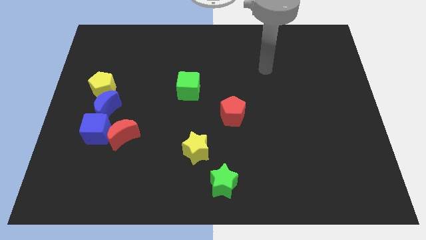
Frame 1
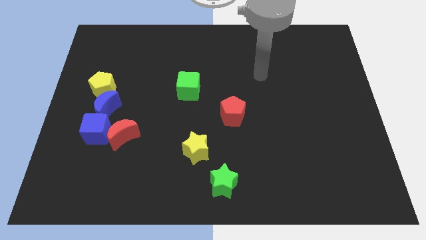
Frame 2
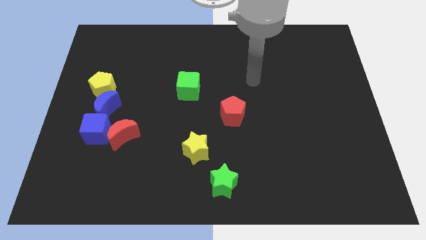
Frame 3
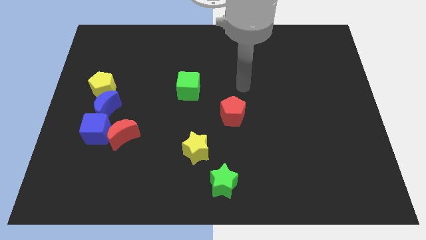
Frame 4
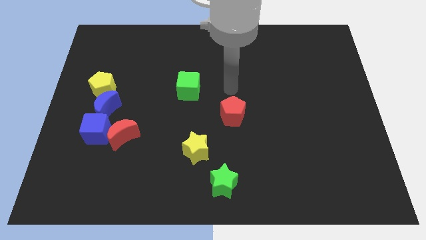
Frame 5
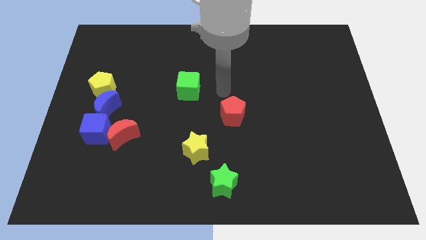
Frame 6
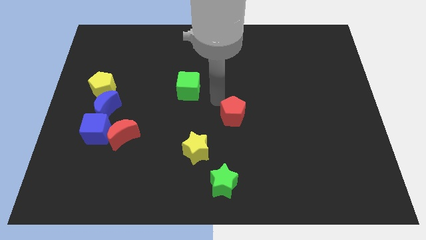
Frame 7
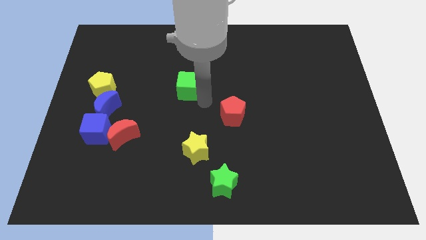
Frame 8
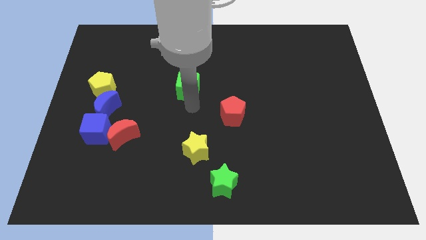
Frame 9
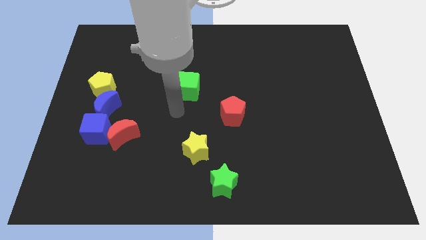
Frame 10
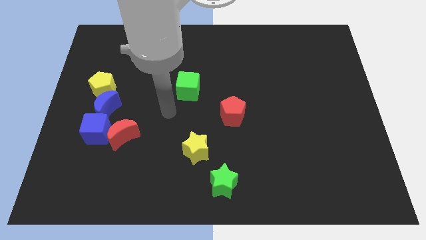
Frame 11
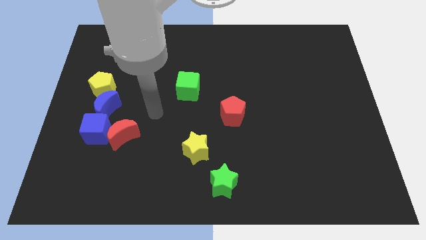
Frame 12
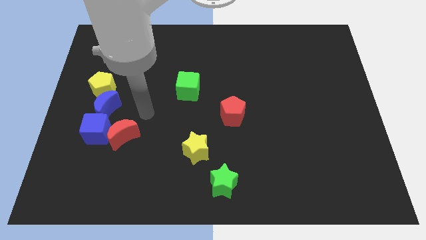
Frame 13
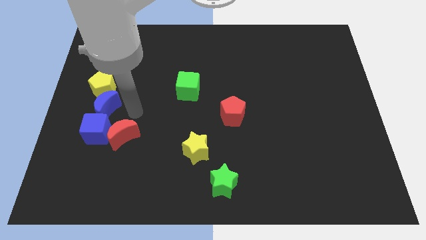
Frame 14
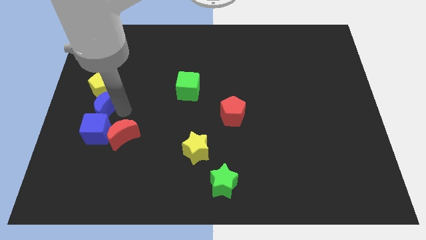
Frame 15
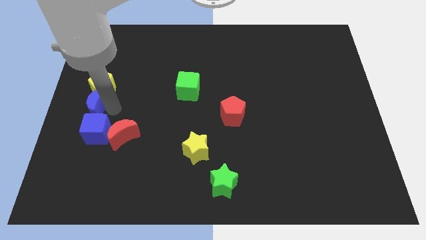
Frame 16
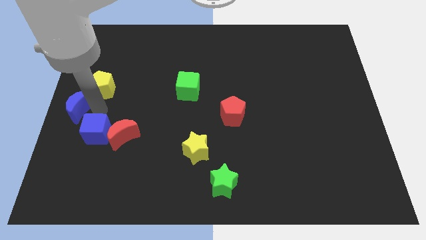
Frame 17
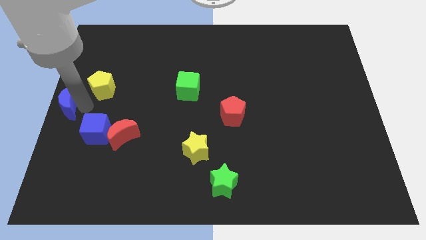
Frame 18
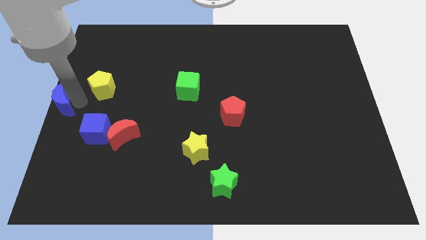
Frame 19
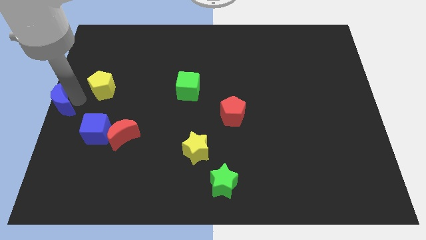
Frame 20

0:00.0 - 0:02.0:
pull the yellow pentagon apart from the blue moon

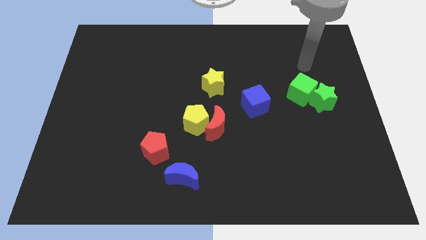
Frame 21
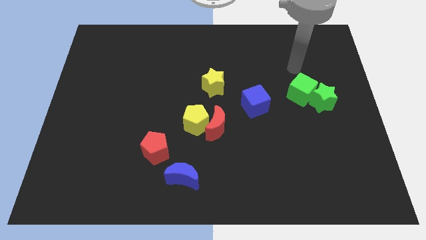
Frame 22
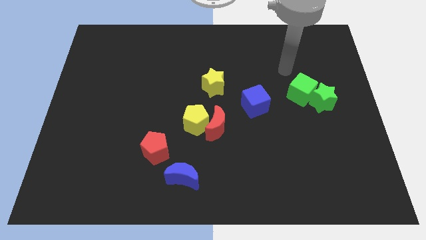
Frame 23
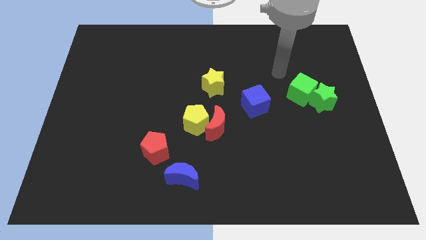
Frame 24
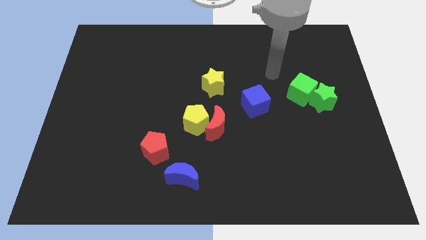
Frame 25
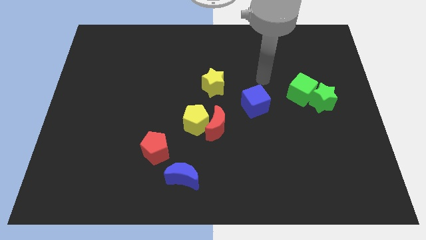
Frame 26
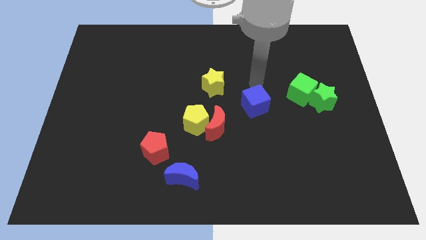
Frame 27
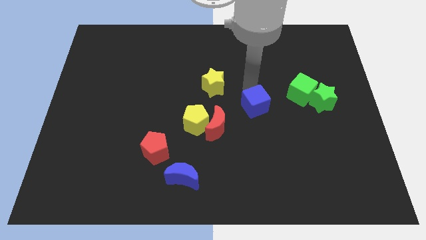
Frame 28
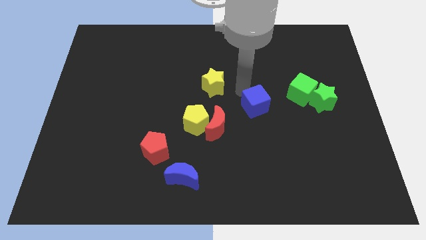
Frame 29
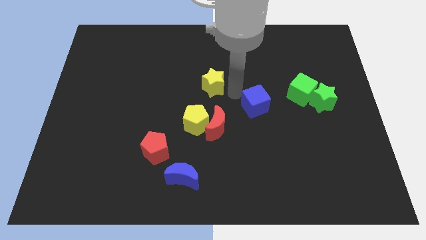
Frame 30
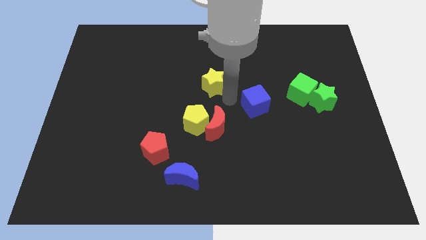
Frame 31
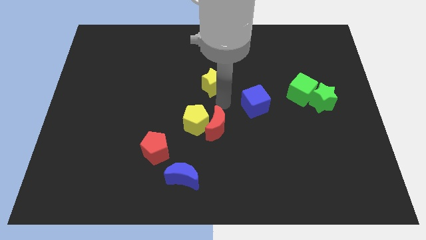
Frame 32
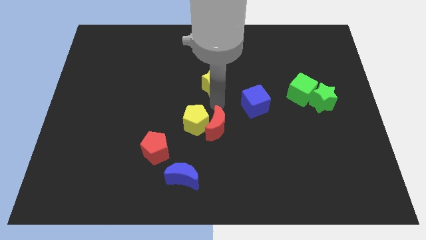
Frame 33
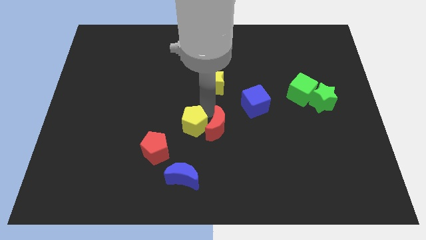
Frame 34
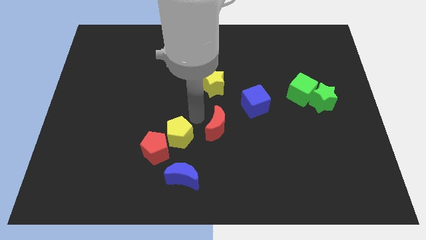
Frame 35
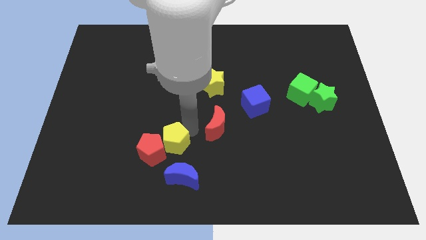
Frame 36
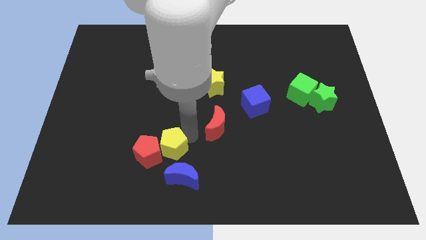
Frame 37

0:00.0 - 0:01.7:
move the red moon away from the yellow pentagon

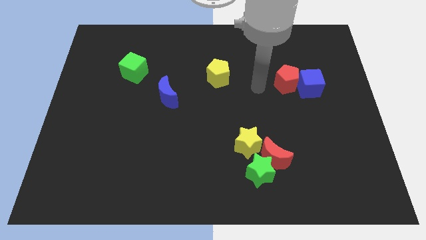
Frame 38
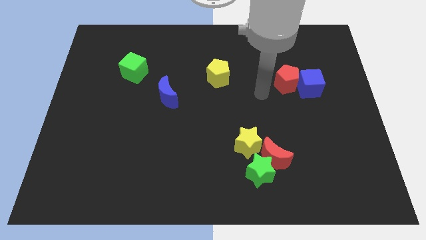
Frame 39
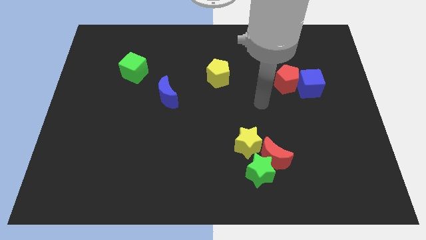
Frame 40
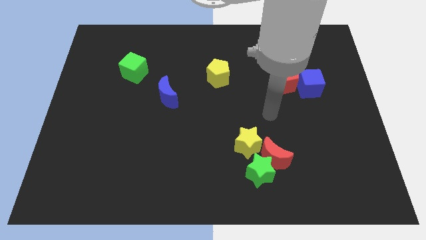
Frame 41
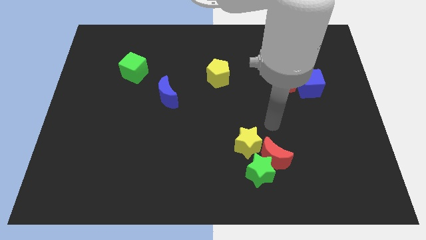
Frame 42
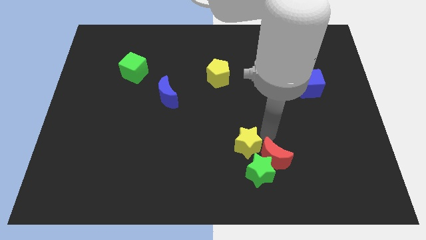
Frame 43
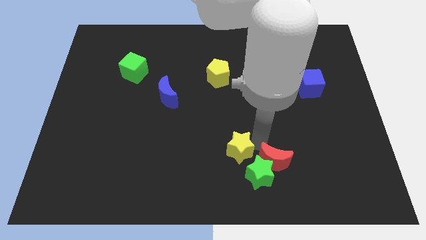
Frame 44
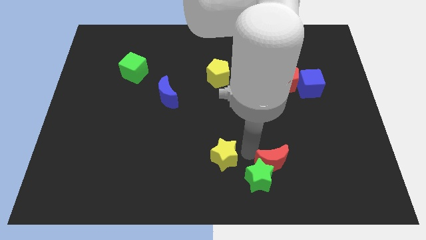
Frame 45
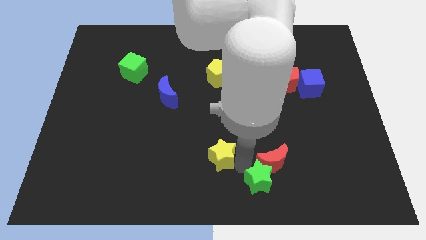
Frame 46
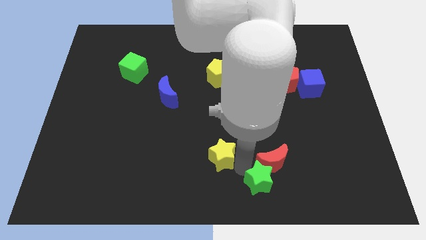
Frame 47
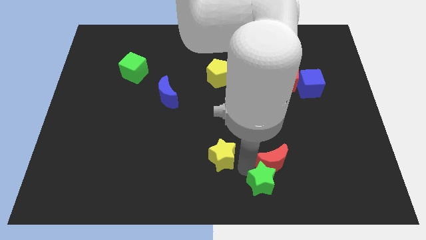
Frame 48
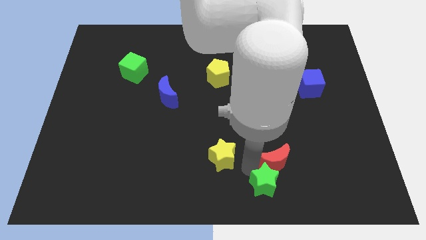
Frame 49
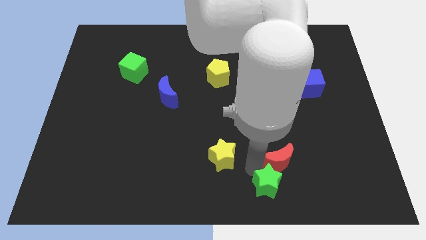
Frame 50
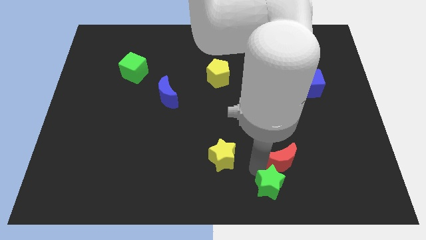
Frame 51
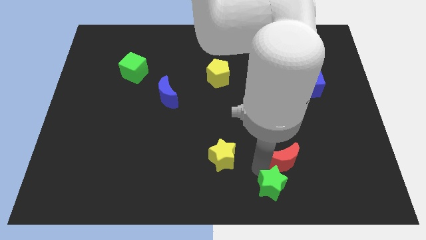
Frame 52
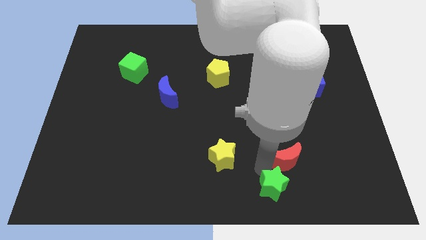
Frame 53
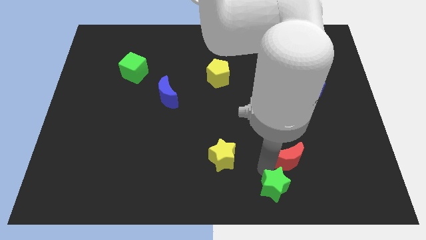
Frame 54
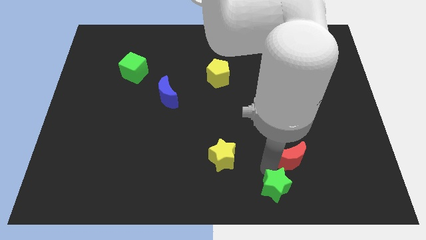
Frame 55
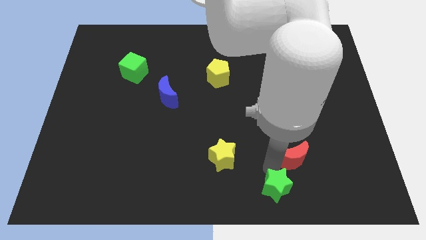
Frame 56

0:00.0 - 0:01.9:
separate the red moon from the green star and yellow star

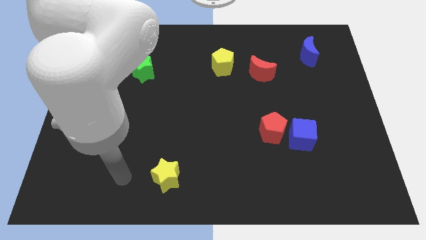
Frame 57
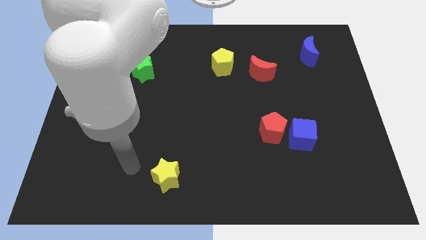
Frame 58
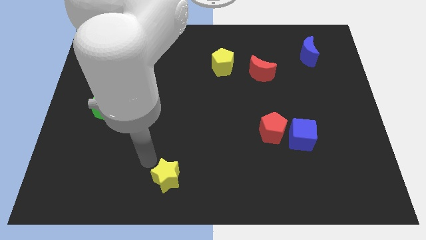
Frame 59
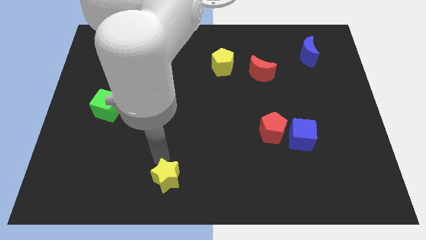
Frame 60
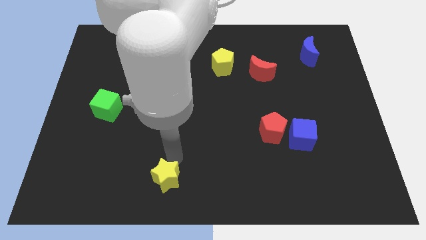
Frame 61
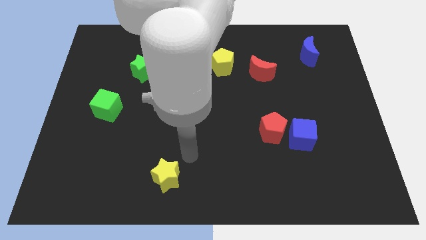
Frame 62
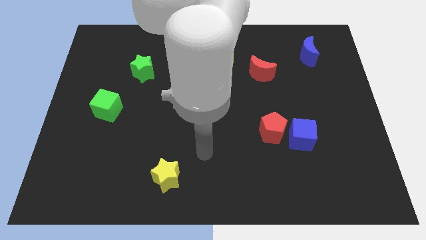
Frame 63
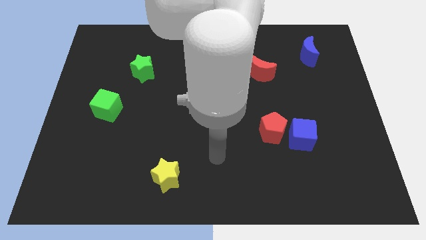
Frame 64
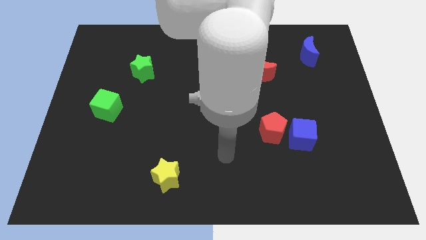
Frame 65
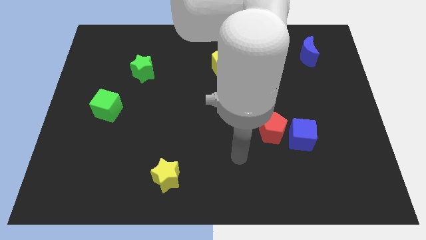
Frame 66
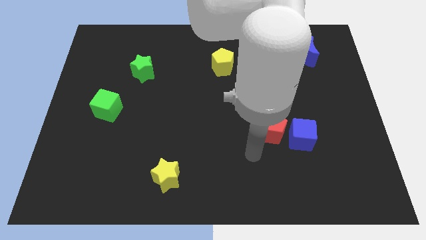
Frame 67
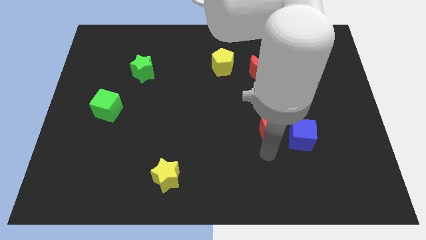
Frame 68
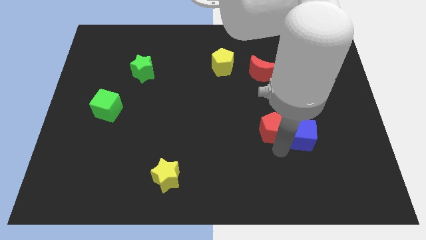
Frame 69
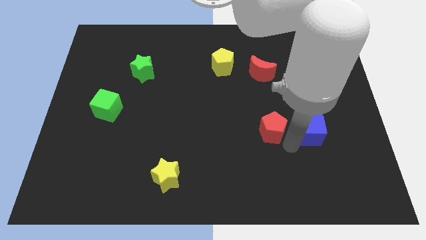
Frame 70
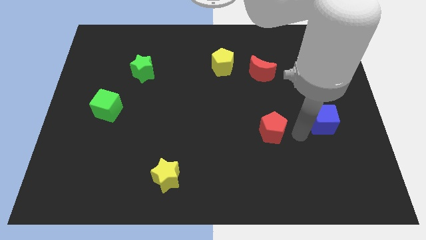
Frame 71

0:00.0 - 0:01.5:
pull the red pentagon apart from the blue cube

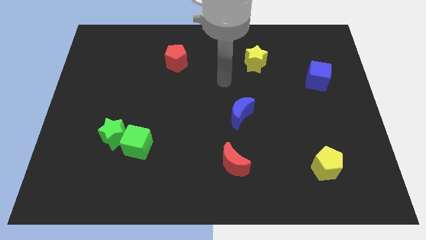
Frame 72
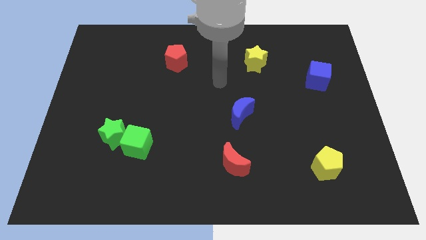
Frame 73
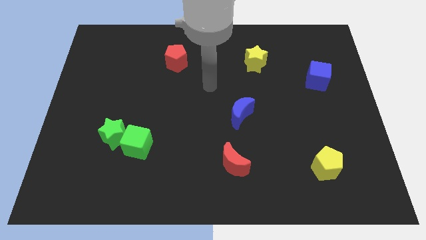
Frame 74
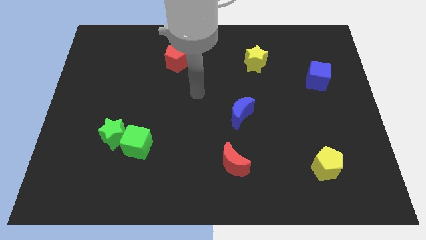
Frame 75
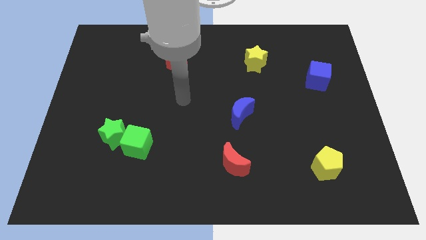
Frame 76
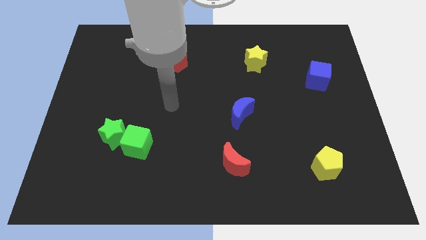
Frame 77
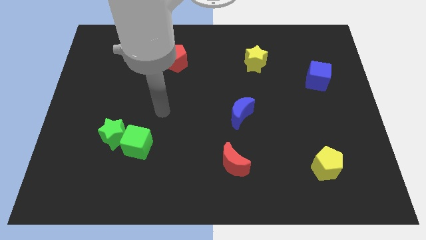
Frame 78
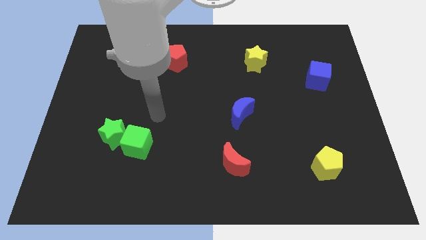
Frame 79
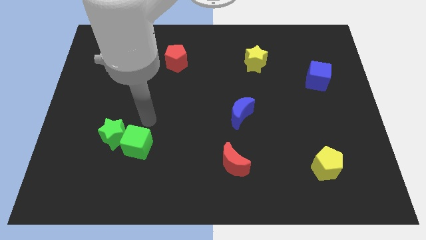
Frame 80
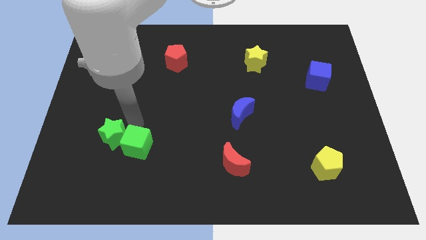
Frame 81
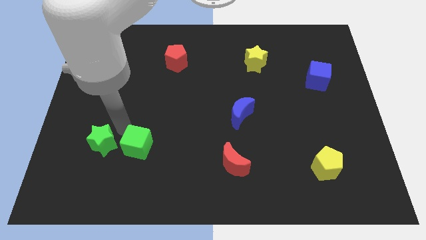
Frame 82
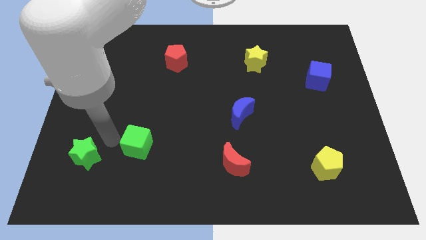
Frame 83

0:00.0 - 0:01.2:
separate the green cube from the green star

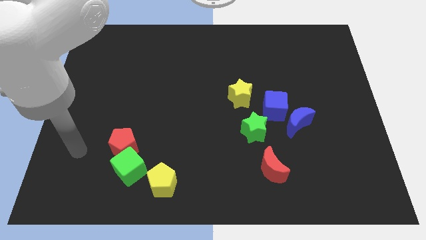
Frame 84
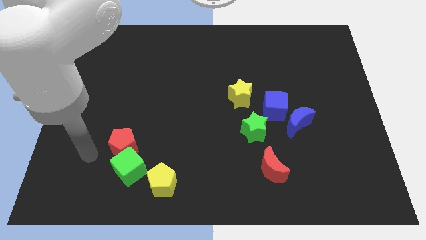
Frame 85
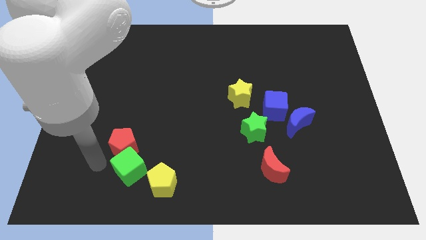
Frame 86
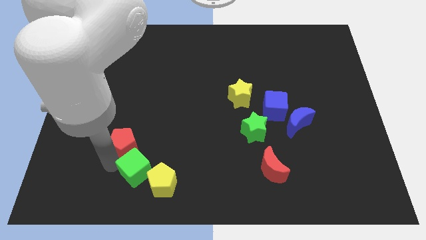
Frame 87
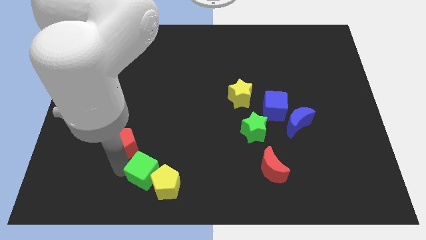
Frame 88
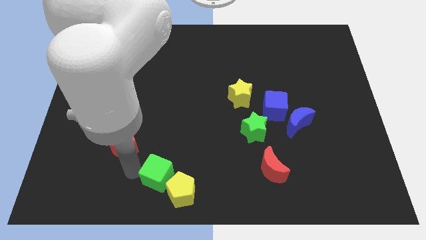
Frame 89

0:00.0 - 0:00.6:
separate the red pentagon from the green cube

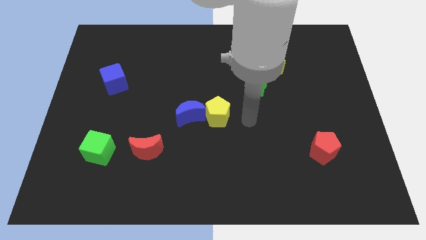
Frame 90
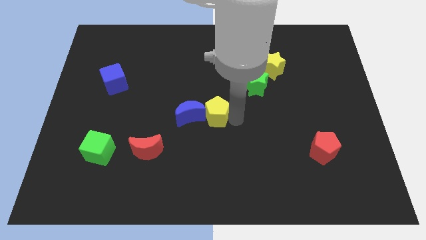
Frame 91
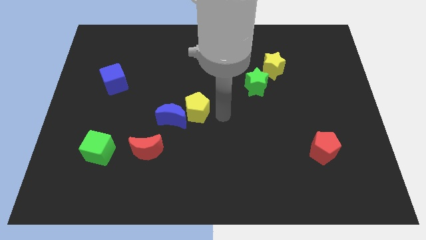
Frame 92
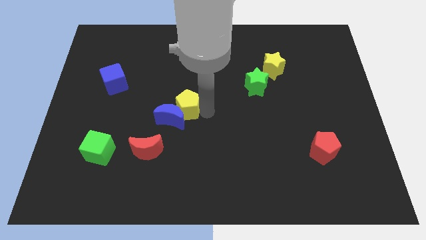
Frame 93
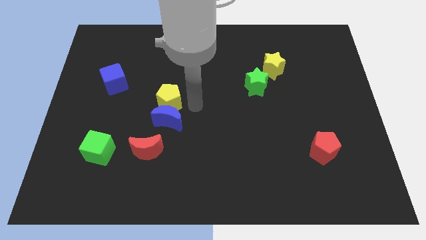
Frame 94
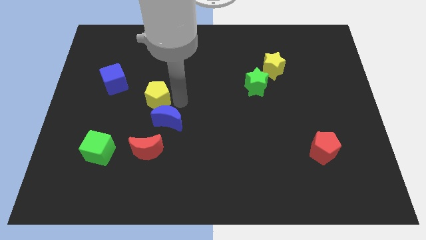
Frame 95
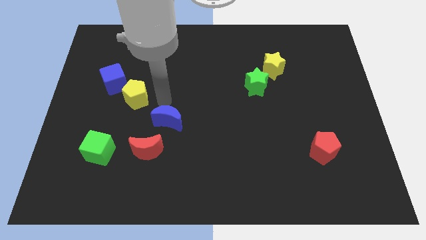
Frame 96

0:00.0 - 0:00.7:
separate the blue moon from the yellow pentagon
